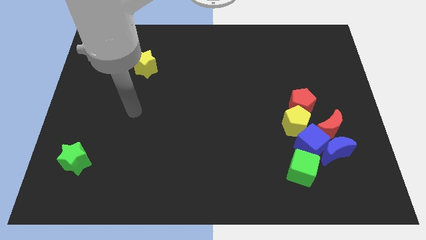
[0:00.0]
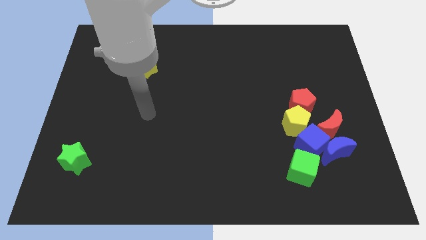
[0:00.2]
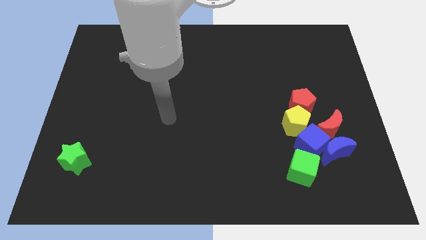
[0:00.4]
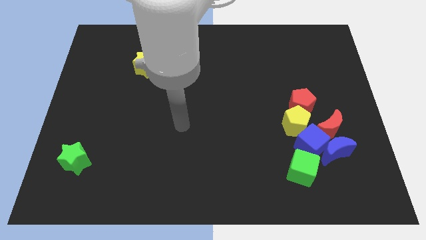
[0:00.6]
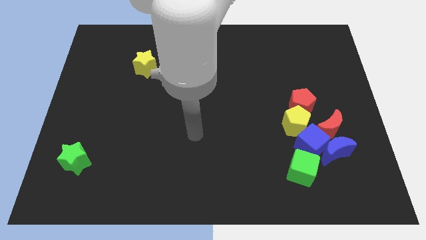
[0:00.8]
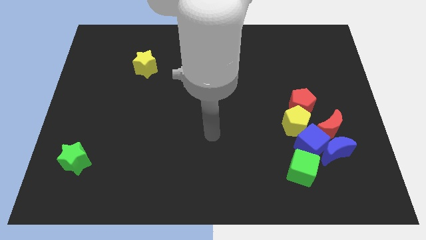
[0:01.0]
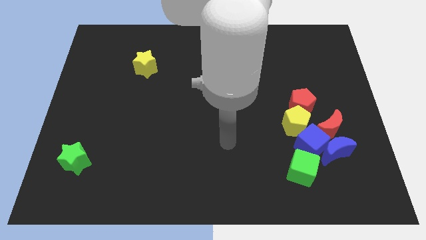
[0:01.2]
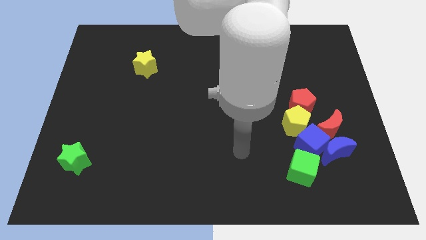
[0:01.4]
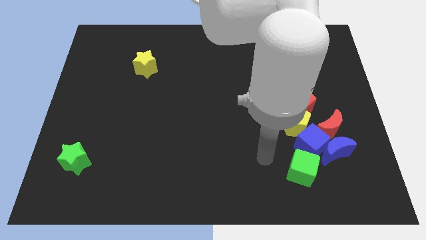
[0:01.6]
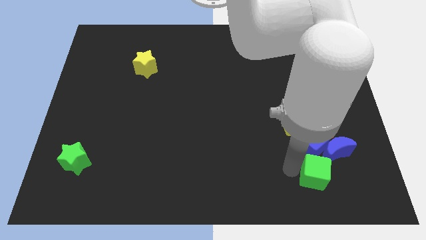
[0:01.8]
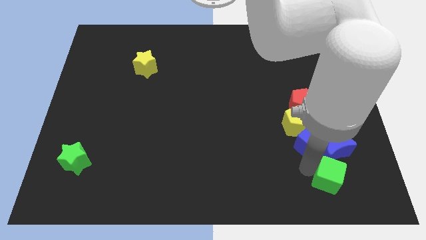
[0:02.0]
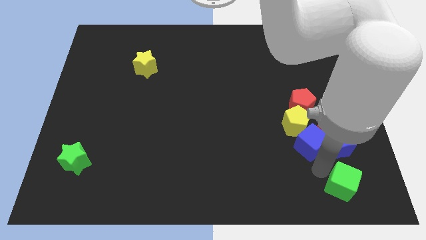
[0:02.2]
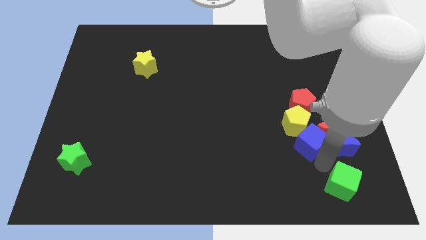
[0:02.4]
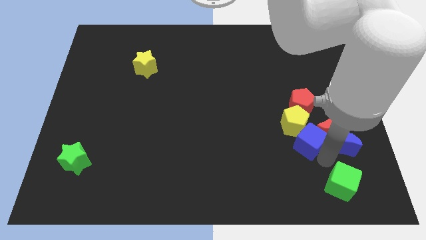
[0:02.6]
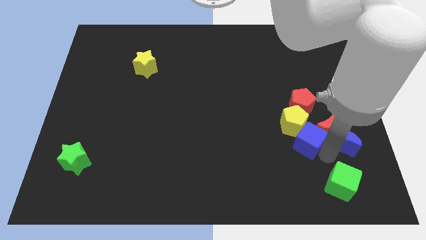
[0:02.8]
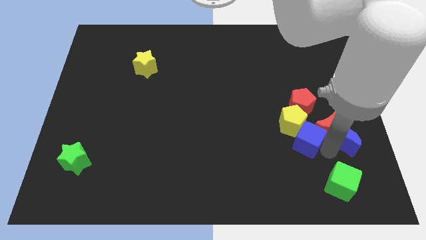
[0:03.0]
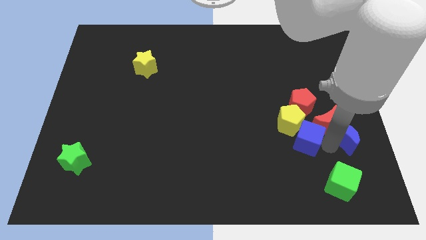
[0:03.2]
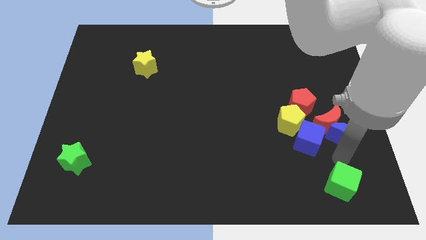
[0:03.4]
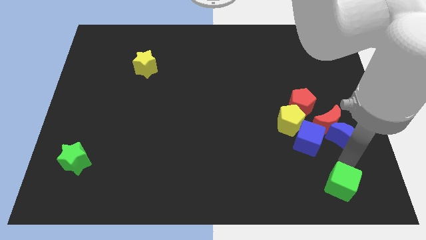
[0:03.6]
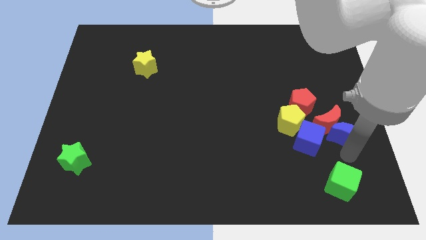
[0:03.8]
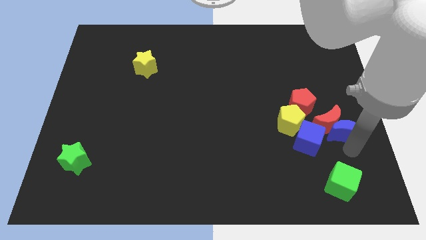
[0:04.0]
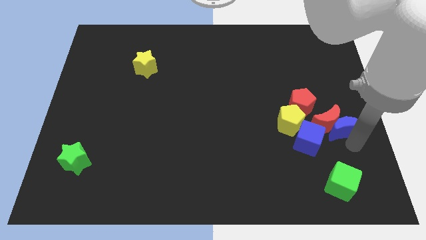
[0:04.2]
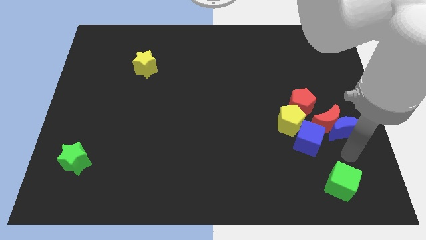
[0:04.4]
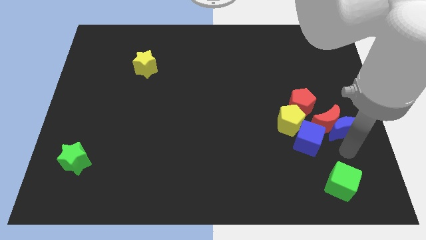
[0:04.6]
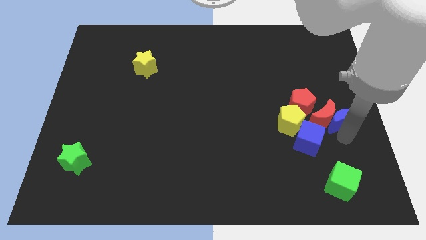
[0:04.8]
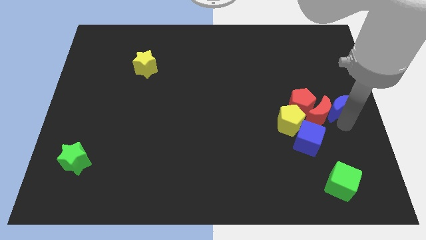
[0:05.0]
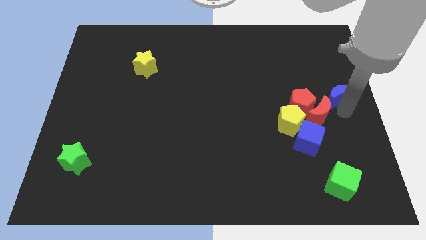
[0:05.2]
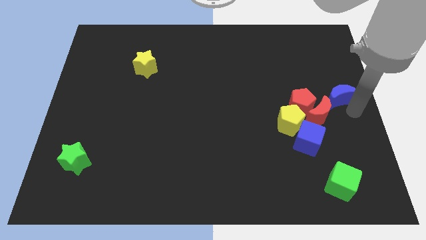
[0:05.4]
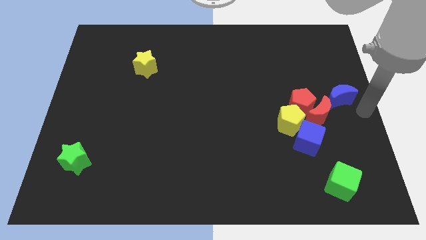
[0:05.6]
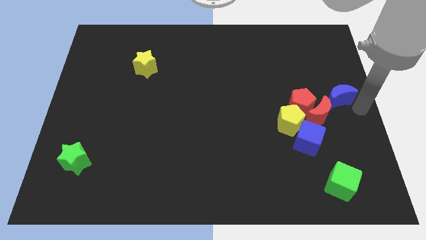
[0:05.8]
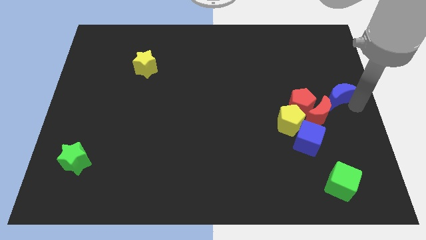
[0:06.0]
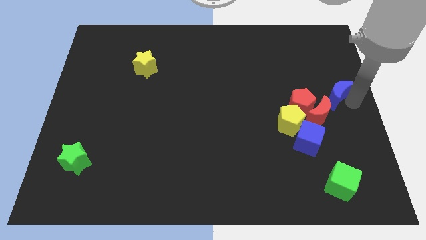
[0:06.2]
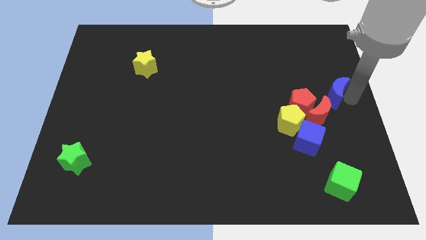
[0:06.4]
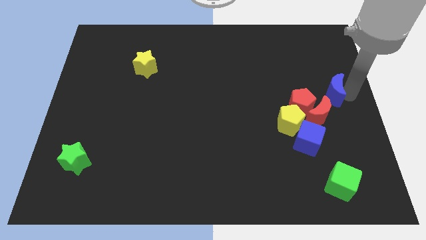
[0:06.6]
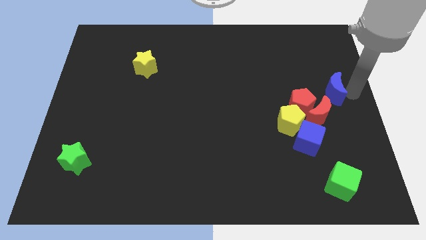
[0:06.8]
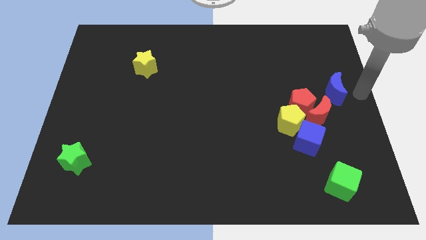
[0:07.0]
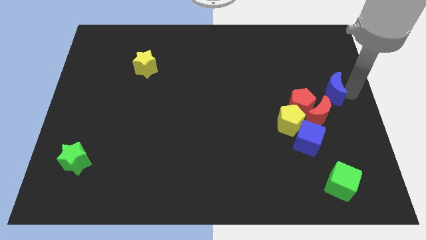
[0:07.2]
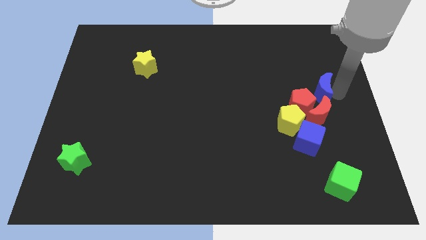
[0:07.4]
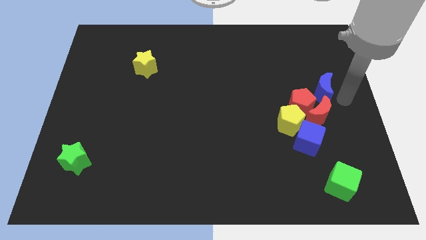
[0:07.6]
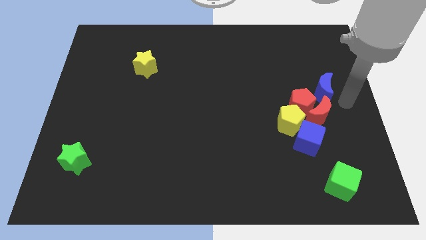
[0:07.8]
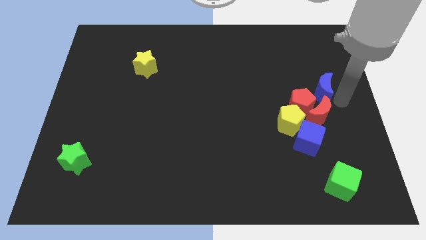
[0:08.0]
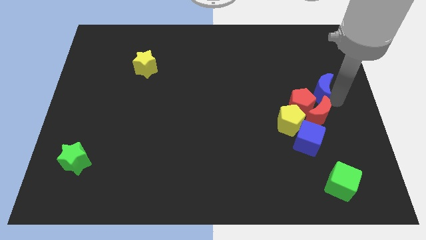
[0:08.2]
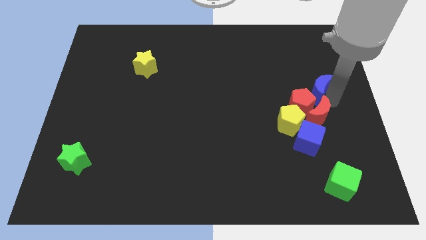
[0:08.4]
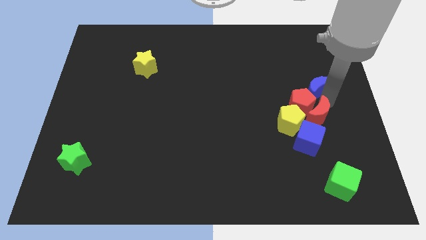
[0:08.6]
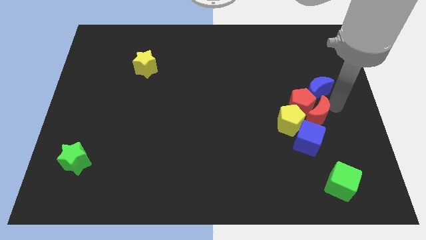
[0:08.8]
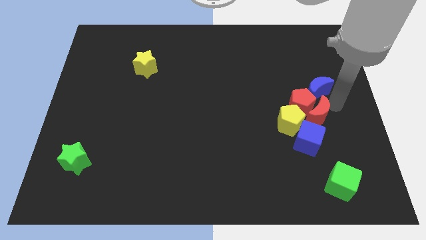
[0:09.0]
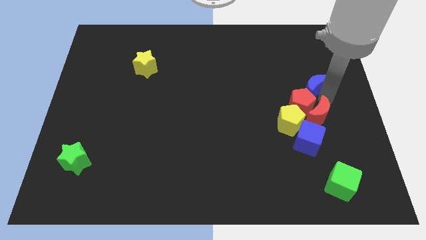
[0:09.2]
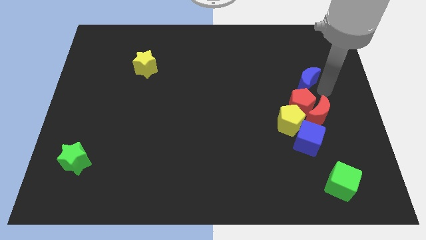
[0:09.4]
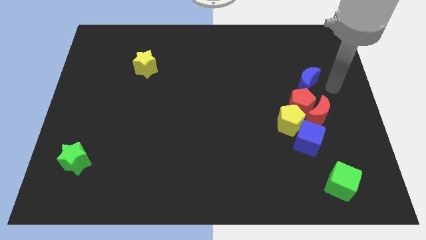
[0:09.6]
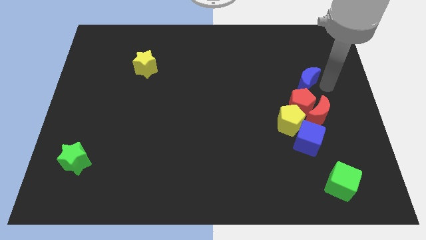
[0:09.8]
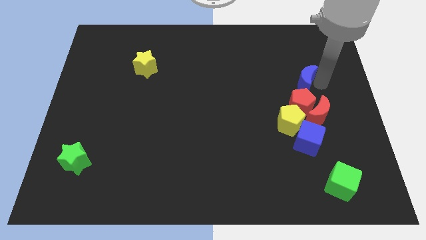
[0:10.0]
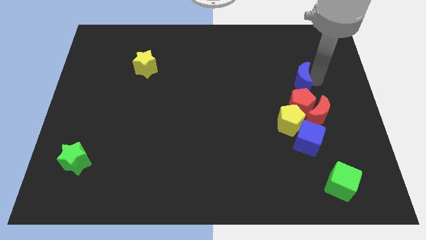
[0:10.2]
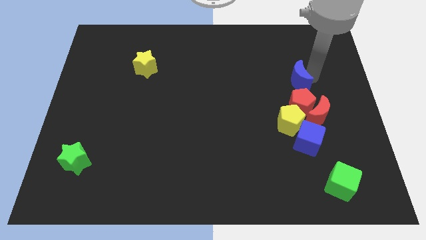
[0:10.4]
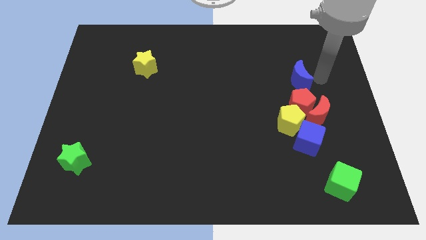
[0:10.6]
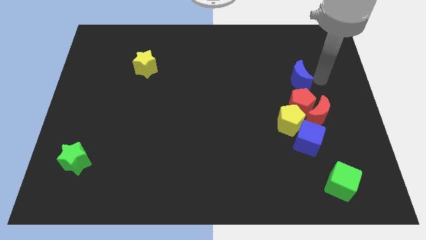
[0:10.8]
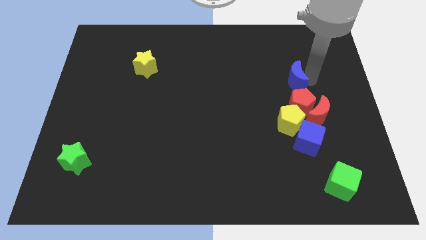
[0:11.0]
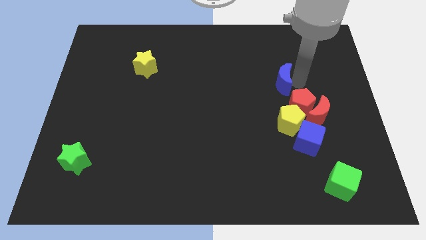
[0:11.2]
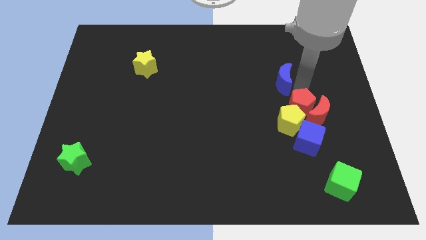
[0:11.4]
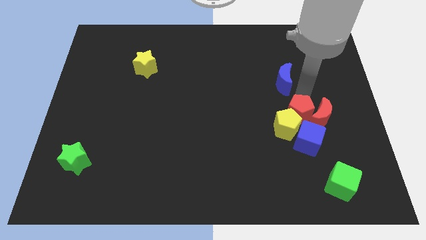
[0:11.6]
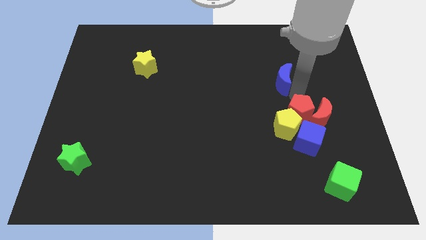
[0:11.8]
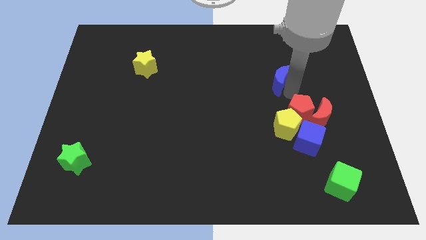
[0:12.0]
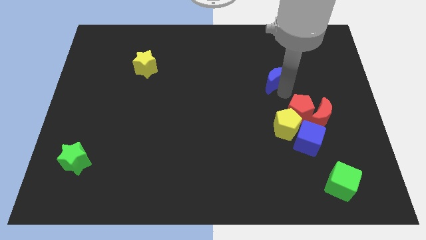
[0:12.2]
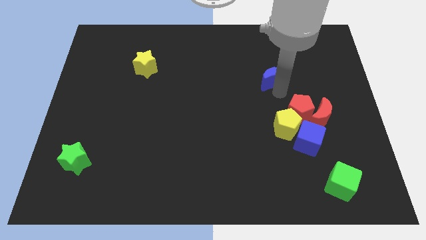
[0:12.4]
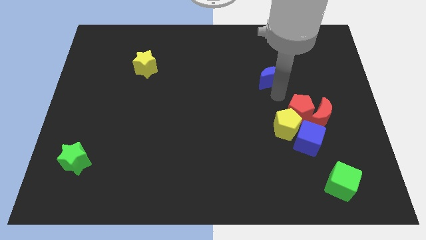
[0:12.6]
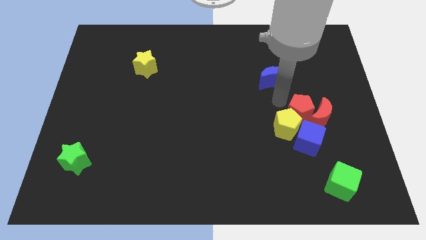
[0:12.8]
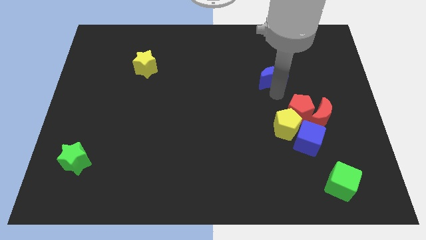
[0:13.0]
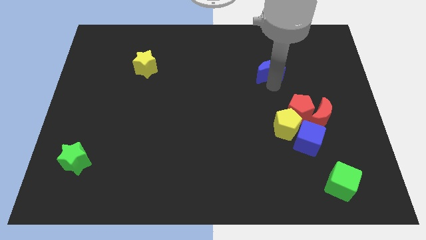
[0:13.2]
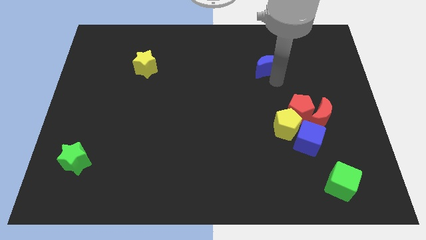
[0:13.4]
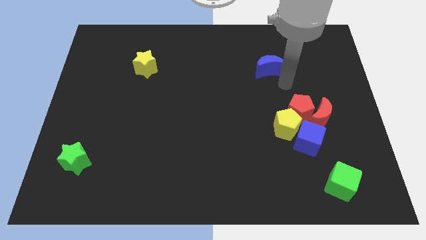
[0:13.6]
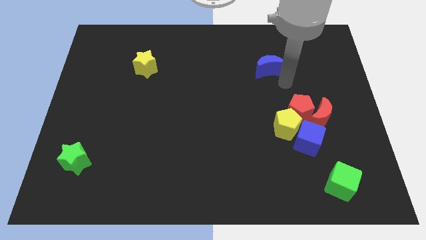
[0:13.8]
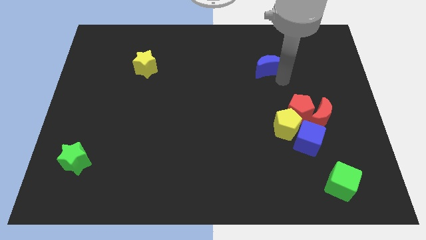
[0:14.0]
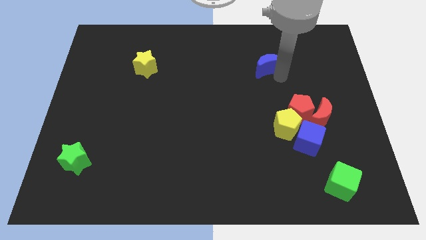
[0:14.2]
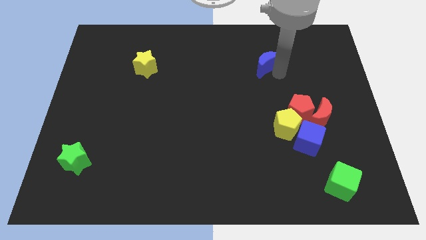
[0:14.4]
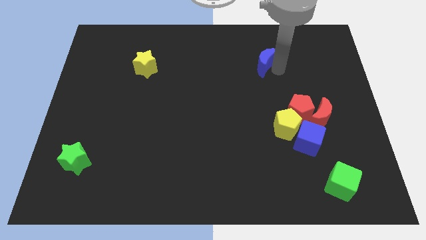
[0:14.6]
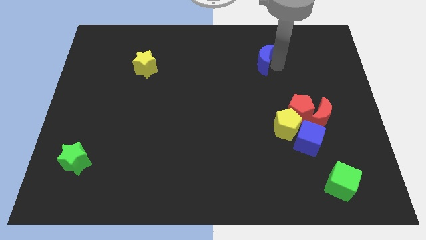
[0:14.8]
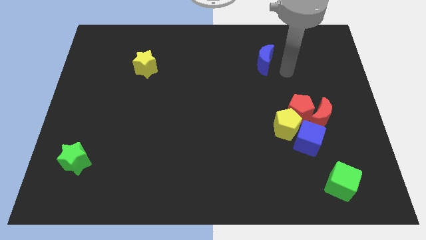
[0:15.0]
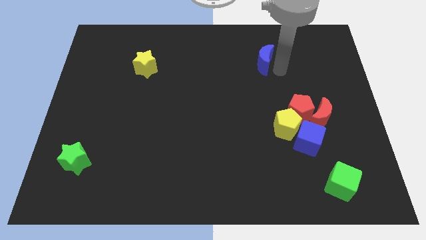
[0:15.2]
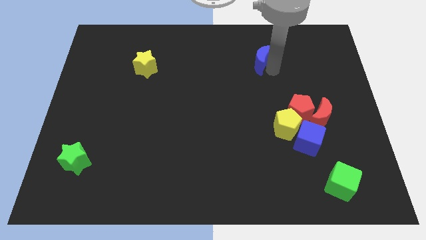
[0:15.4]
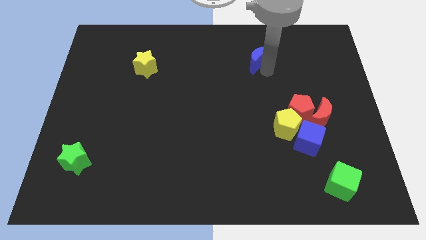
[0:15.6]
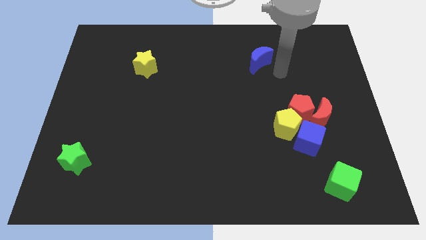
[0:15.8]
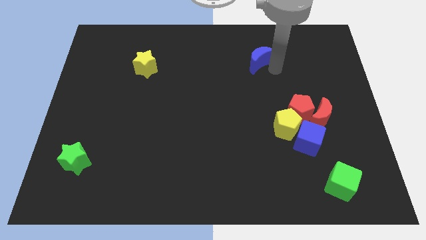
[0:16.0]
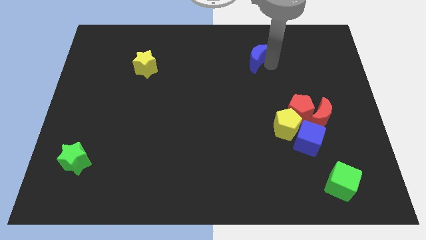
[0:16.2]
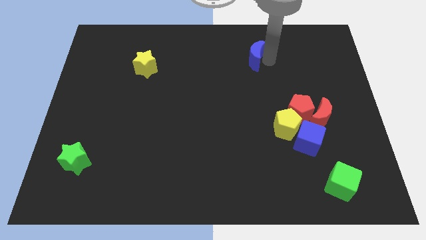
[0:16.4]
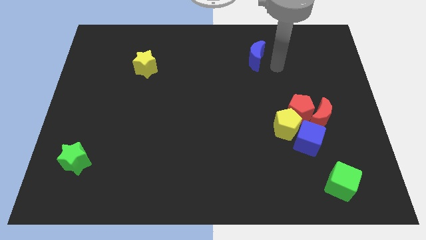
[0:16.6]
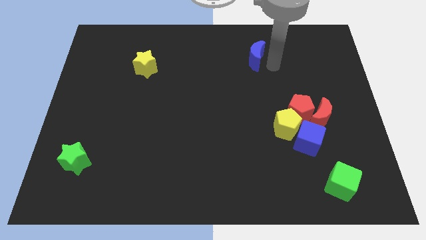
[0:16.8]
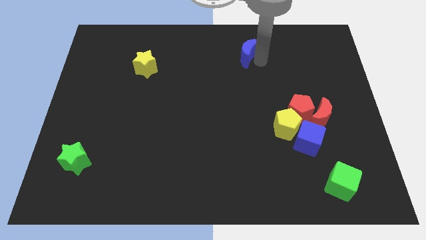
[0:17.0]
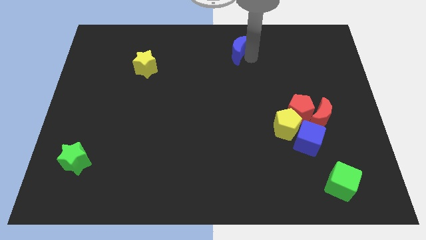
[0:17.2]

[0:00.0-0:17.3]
move the blue moon to the top
